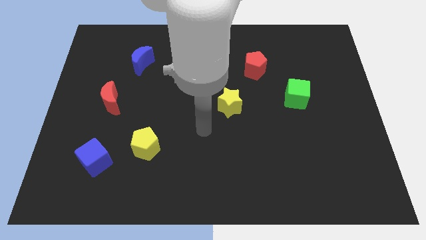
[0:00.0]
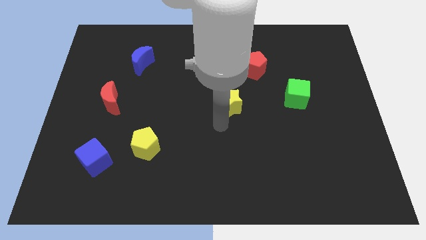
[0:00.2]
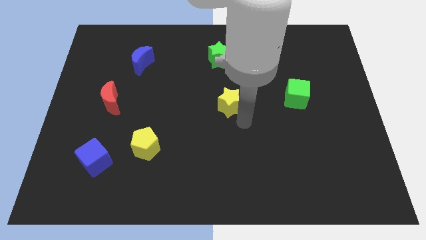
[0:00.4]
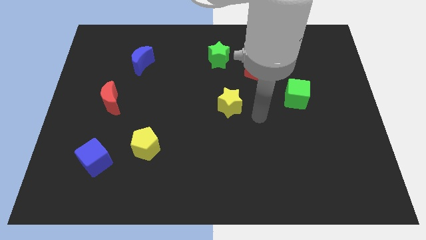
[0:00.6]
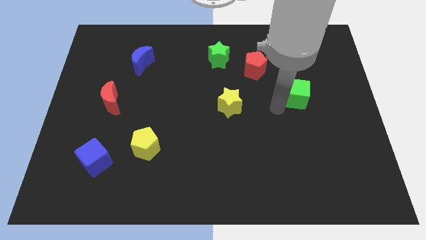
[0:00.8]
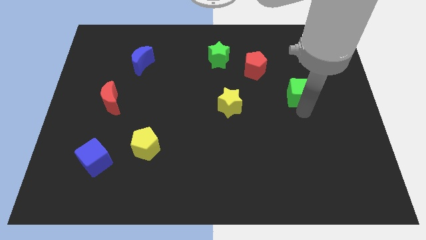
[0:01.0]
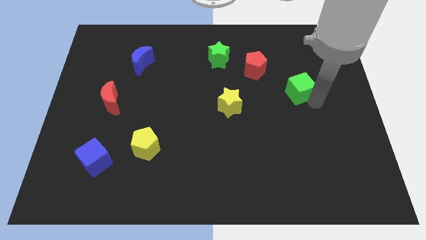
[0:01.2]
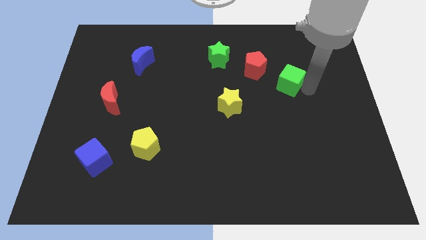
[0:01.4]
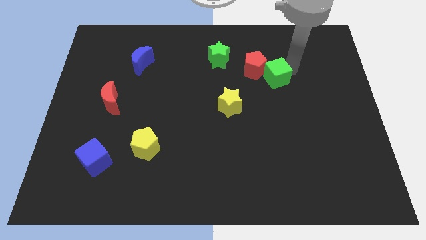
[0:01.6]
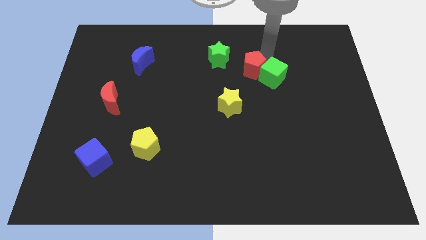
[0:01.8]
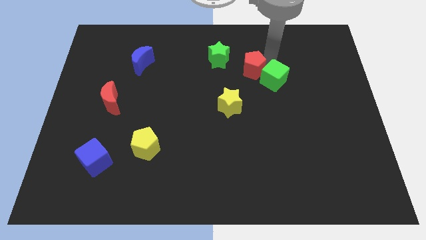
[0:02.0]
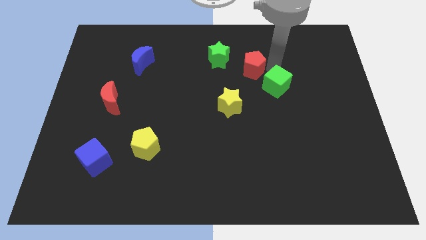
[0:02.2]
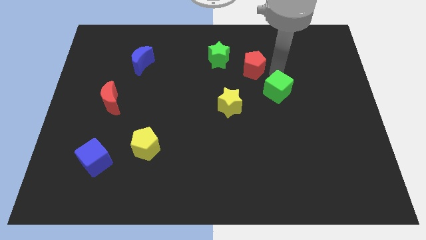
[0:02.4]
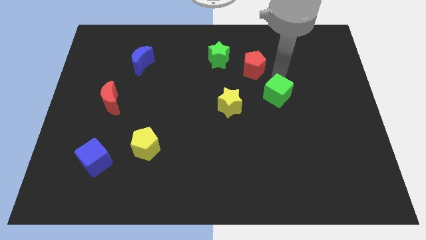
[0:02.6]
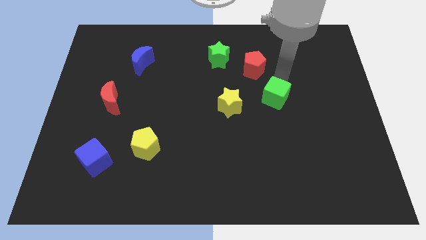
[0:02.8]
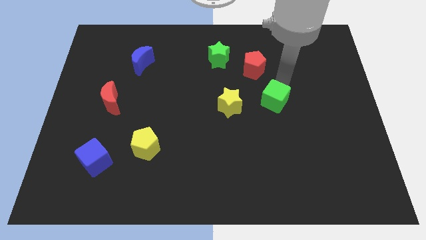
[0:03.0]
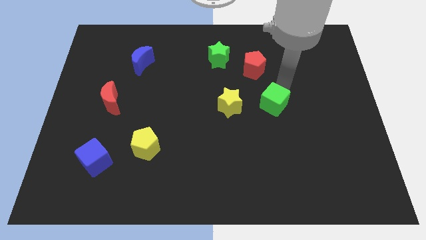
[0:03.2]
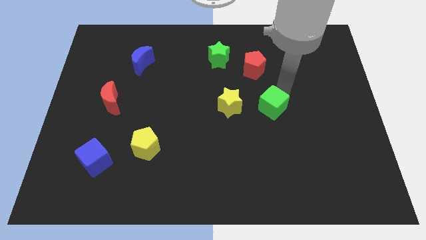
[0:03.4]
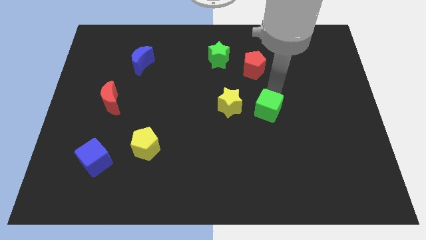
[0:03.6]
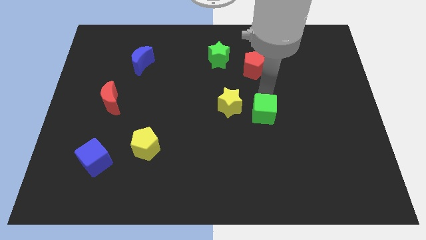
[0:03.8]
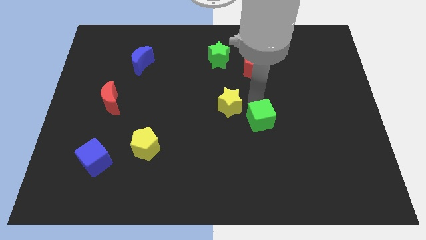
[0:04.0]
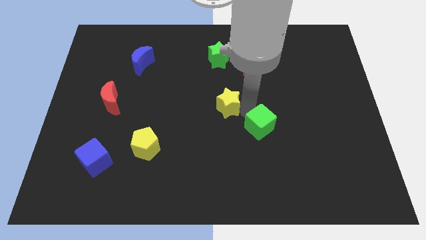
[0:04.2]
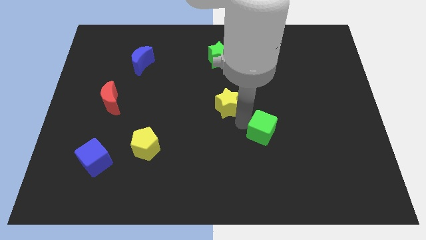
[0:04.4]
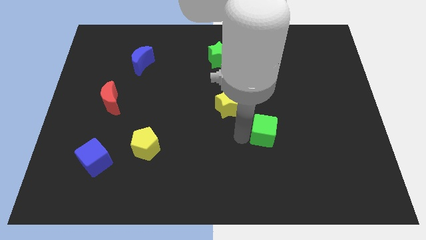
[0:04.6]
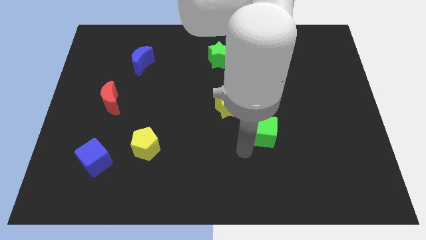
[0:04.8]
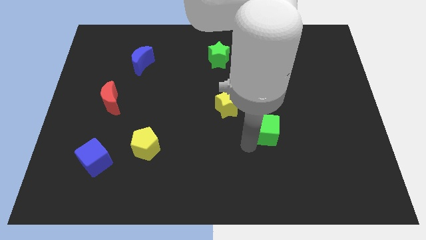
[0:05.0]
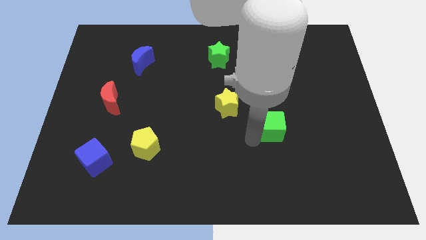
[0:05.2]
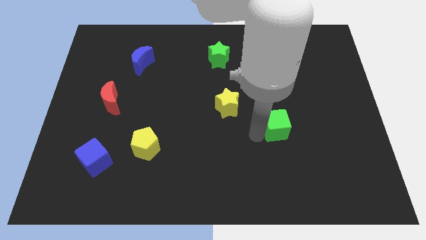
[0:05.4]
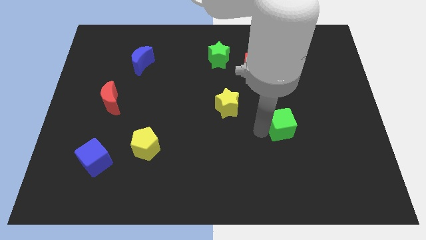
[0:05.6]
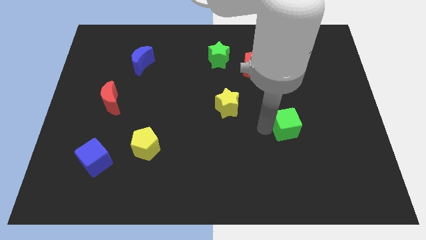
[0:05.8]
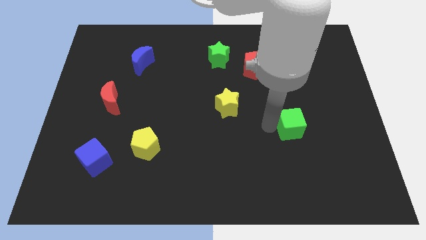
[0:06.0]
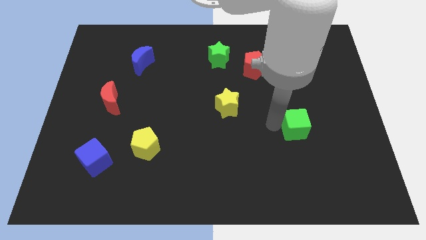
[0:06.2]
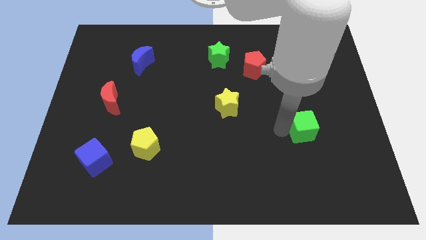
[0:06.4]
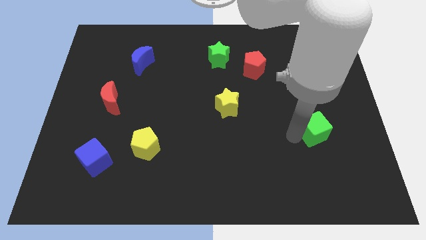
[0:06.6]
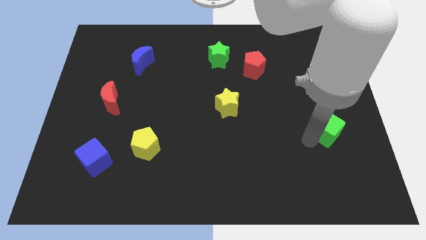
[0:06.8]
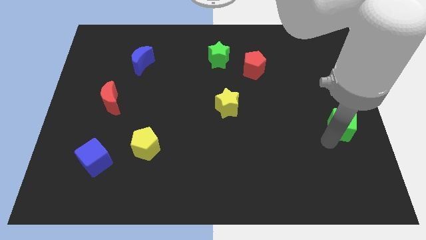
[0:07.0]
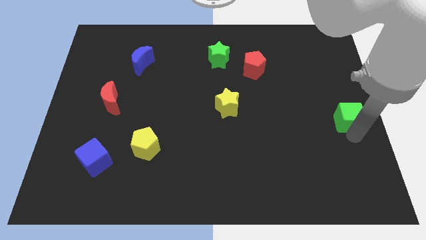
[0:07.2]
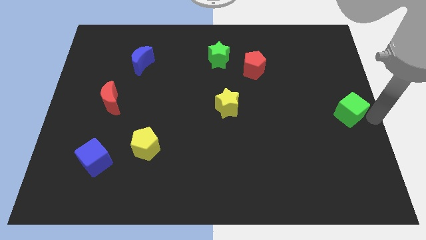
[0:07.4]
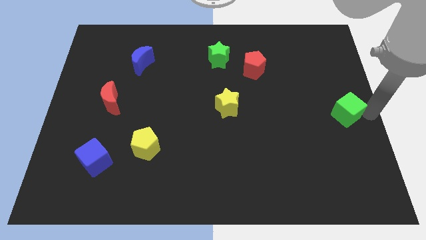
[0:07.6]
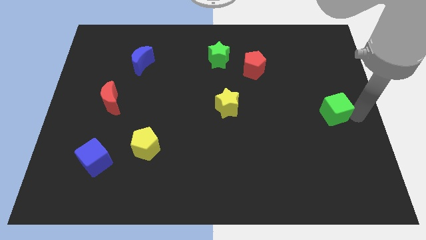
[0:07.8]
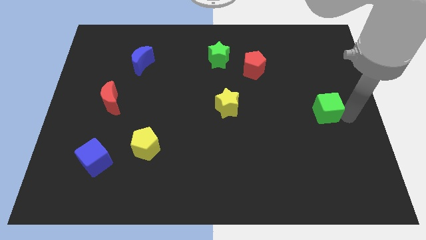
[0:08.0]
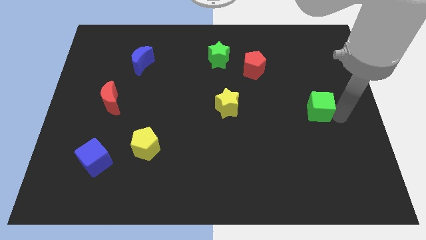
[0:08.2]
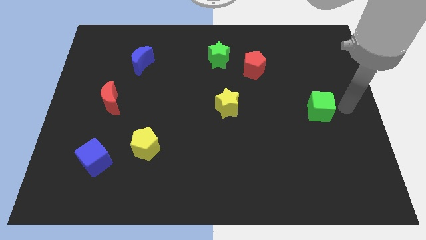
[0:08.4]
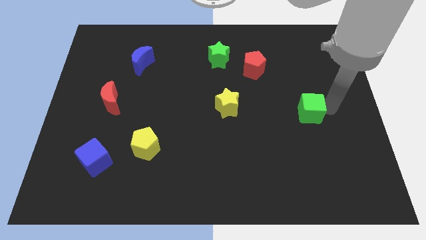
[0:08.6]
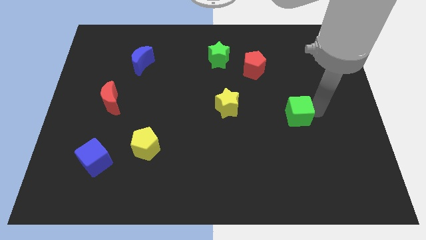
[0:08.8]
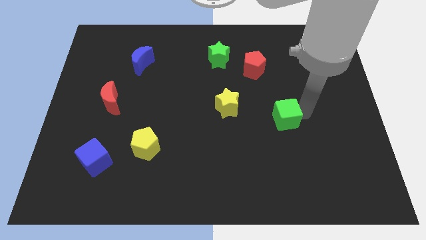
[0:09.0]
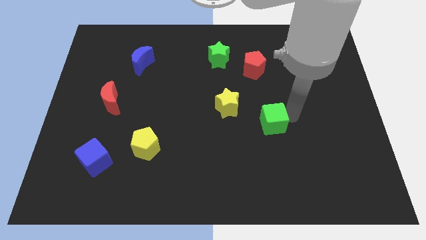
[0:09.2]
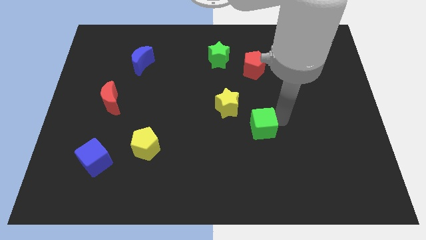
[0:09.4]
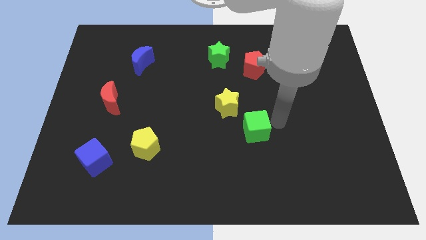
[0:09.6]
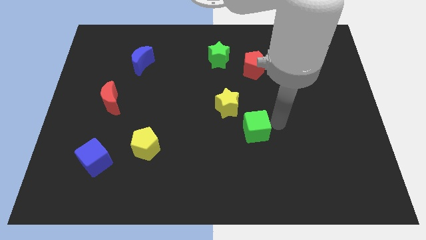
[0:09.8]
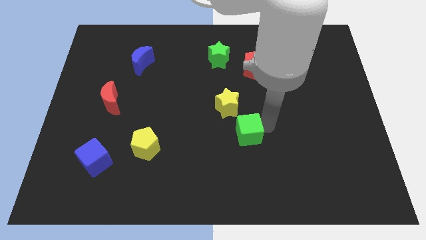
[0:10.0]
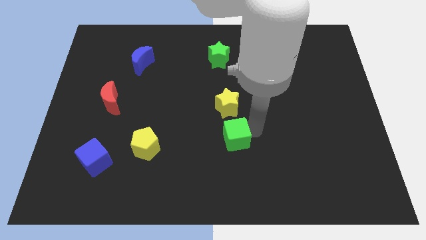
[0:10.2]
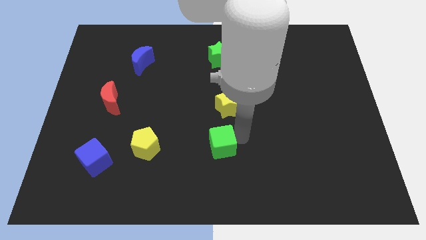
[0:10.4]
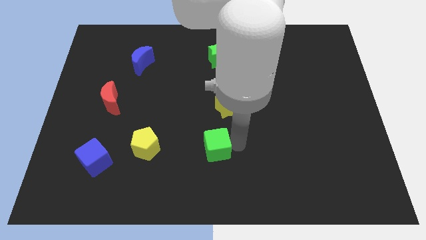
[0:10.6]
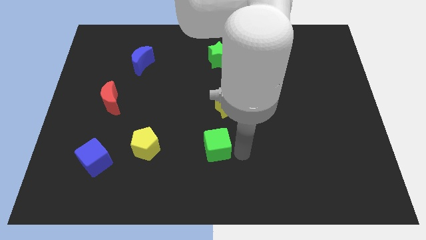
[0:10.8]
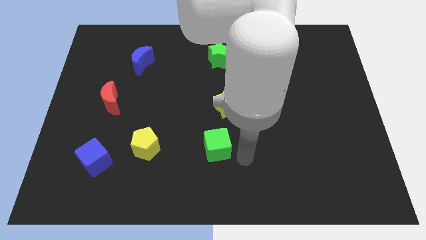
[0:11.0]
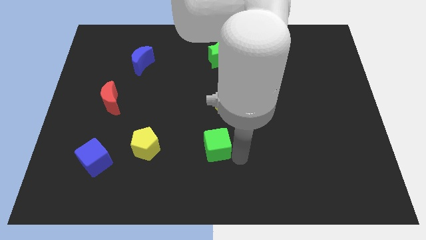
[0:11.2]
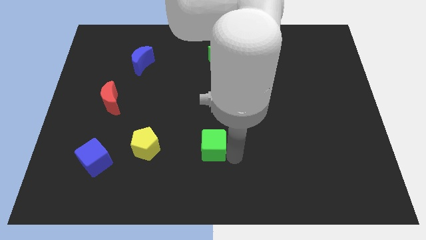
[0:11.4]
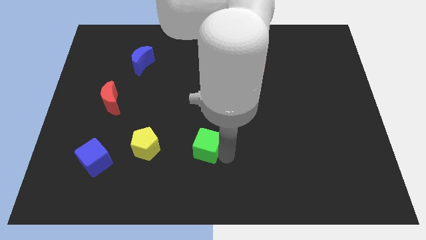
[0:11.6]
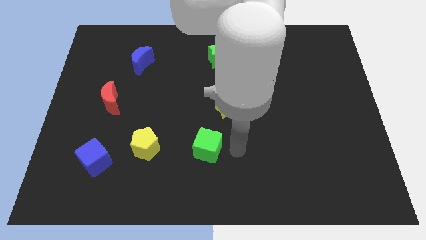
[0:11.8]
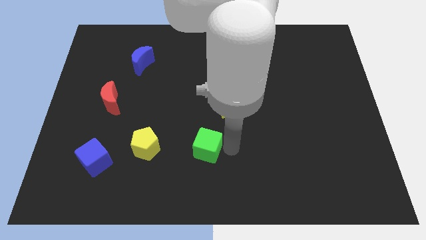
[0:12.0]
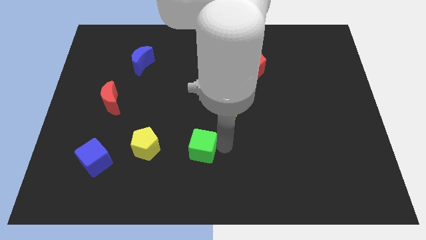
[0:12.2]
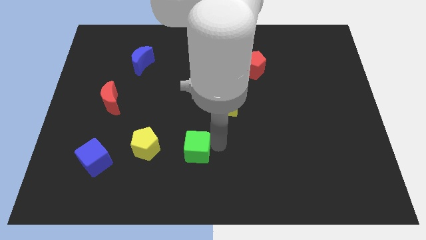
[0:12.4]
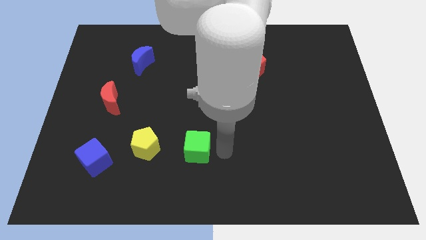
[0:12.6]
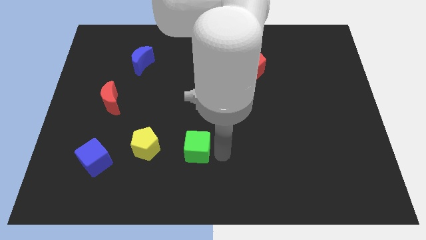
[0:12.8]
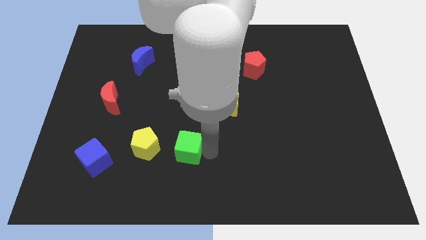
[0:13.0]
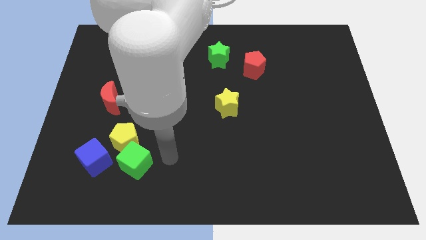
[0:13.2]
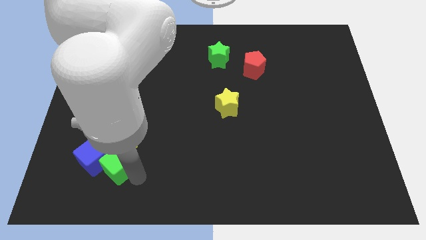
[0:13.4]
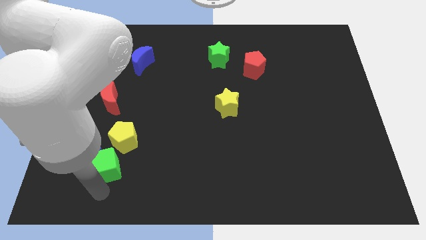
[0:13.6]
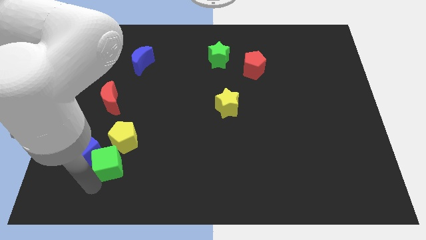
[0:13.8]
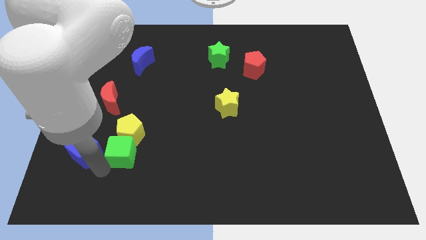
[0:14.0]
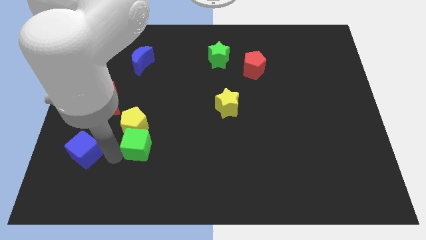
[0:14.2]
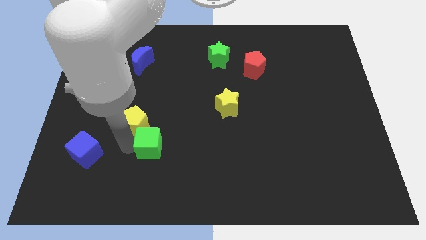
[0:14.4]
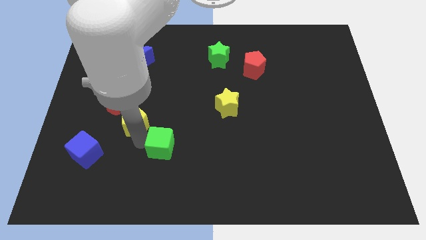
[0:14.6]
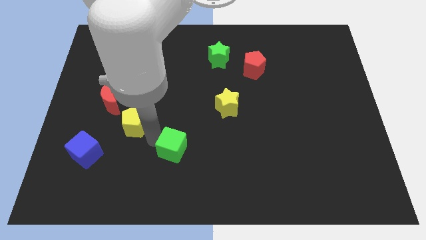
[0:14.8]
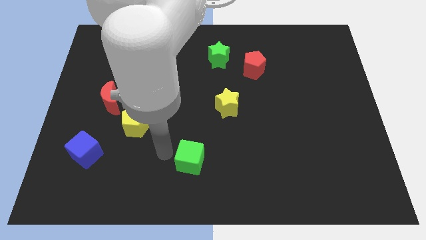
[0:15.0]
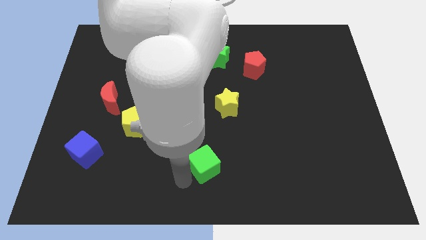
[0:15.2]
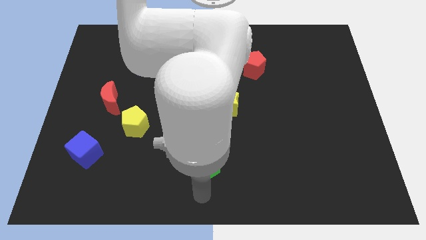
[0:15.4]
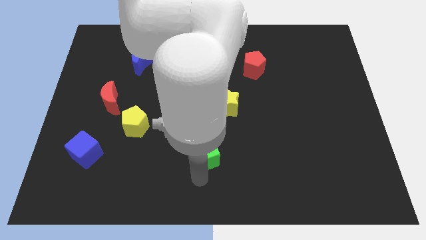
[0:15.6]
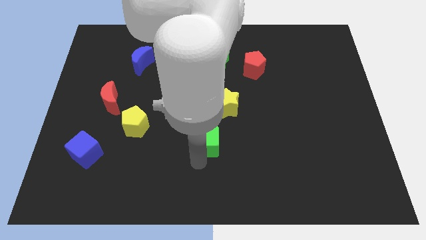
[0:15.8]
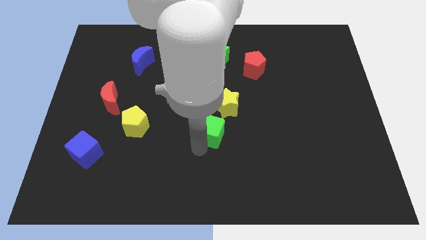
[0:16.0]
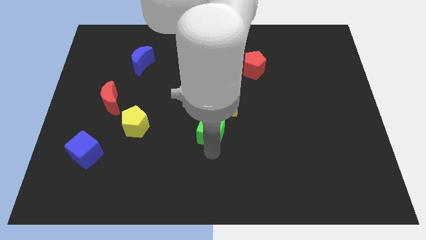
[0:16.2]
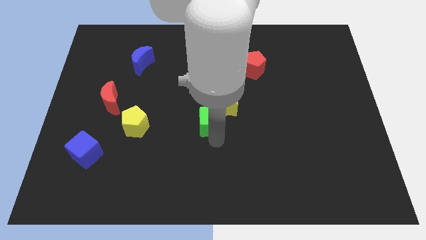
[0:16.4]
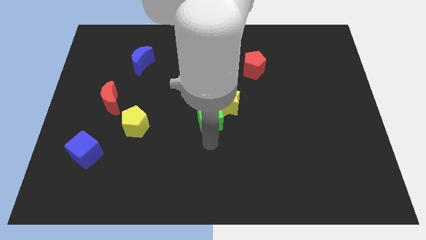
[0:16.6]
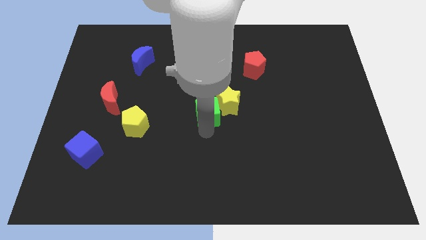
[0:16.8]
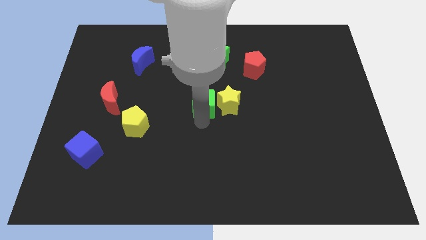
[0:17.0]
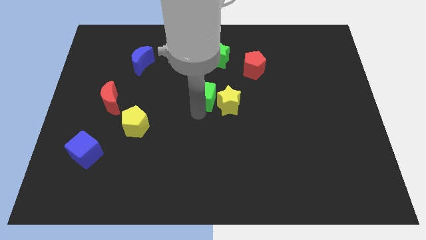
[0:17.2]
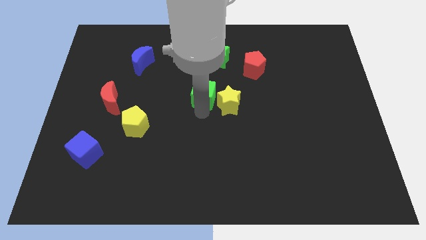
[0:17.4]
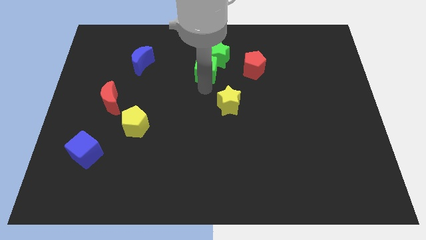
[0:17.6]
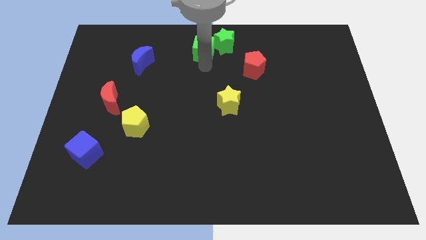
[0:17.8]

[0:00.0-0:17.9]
push the green cube to the top
